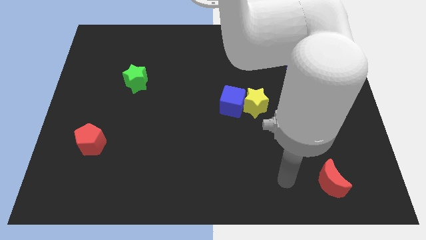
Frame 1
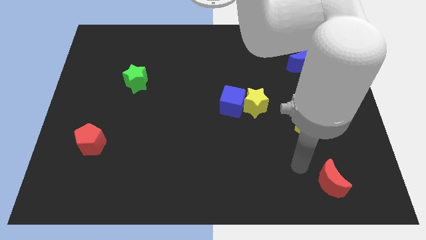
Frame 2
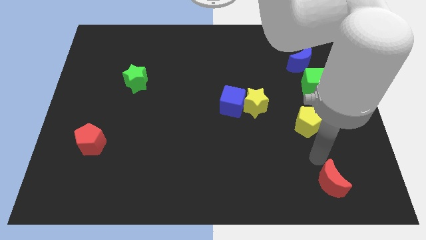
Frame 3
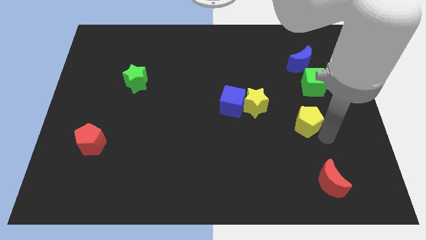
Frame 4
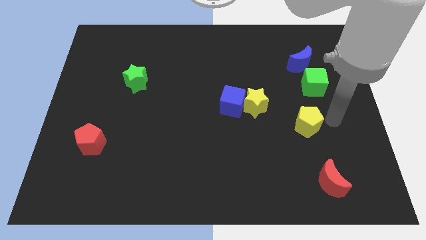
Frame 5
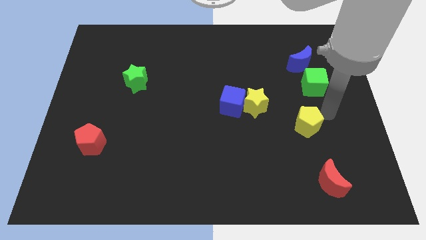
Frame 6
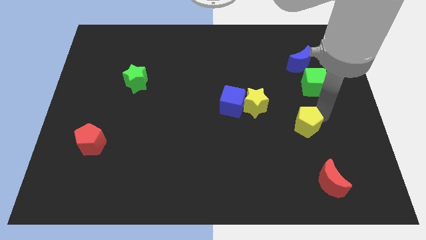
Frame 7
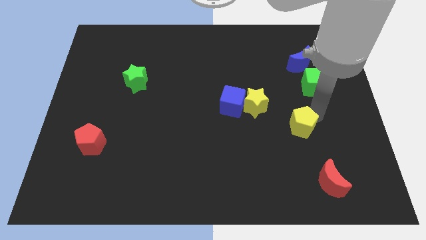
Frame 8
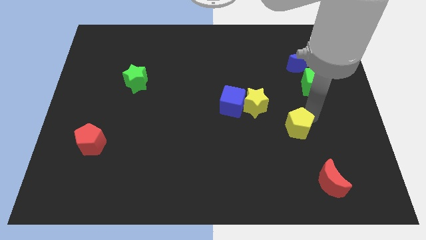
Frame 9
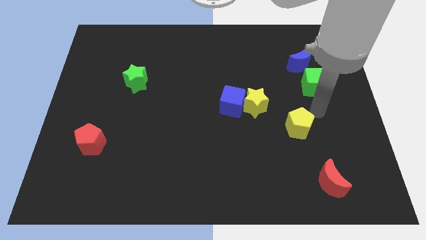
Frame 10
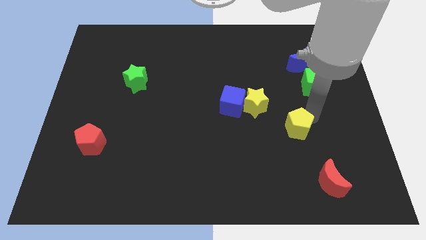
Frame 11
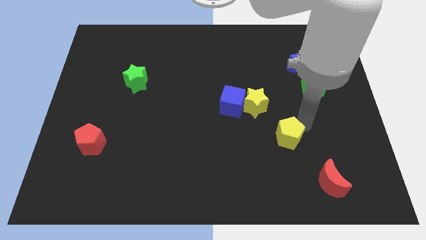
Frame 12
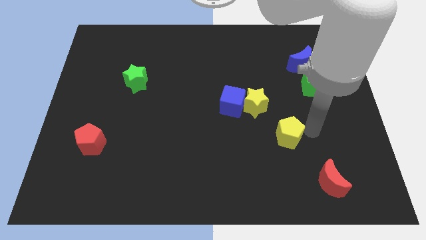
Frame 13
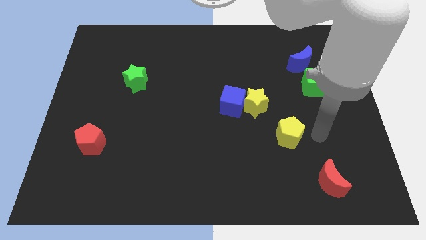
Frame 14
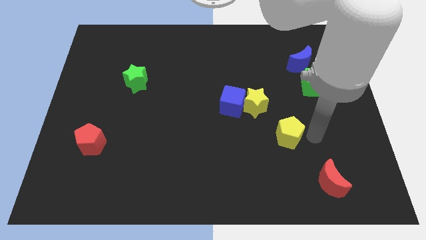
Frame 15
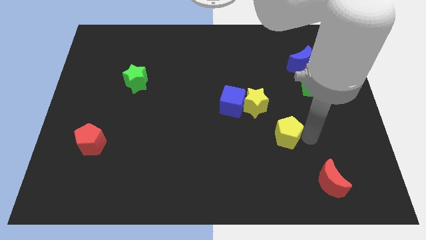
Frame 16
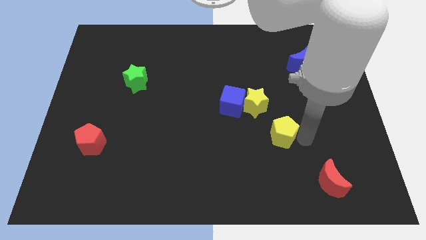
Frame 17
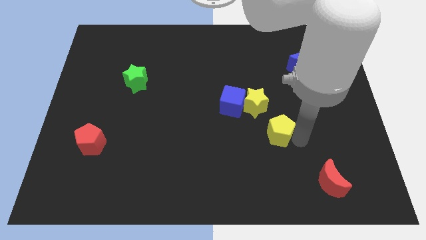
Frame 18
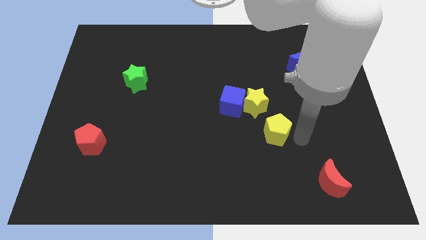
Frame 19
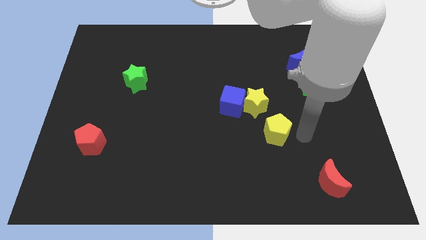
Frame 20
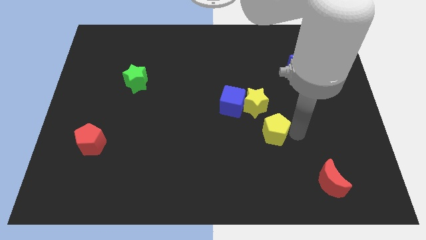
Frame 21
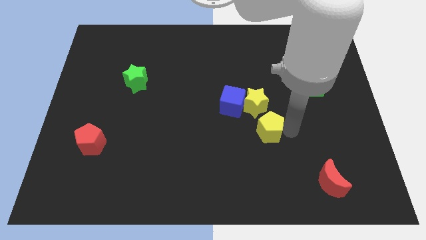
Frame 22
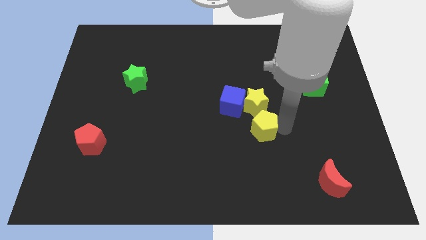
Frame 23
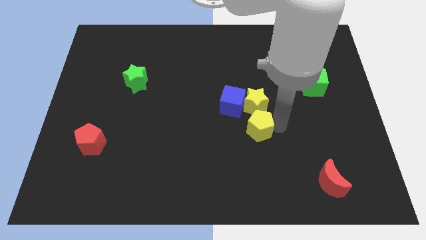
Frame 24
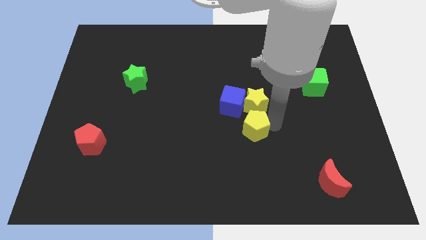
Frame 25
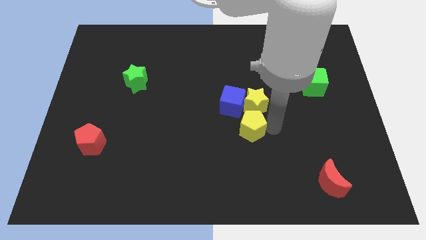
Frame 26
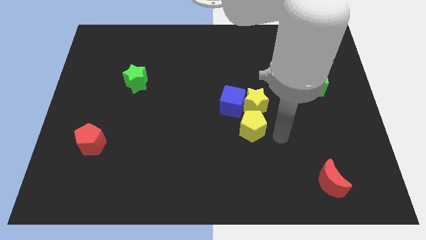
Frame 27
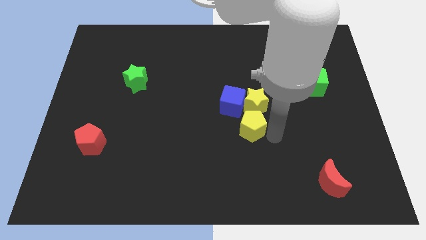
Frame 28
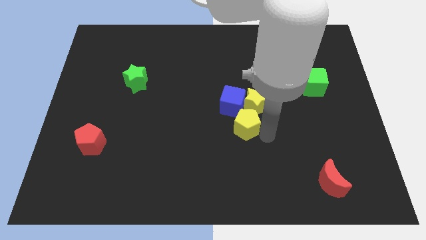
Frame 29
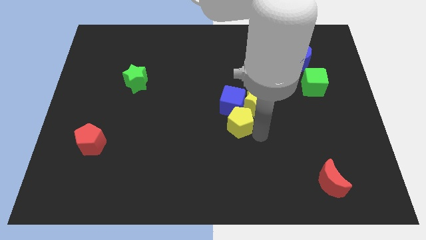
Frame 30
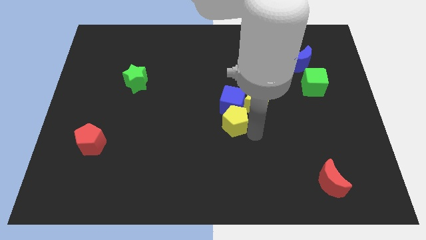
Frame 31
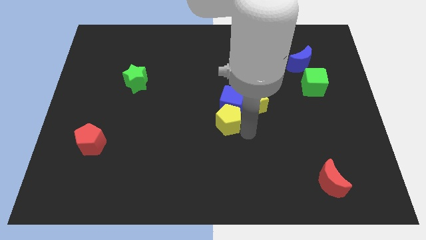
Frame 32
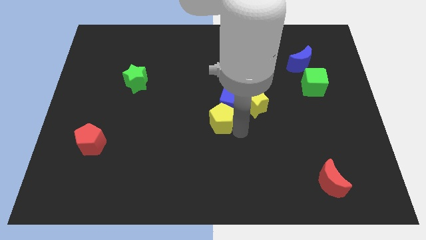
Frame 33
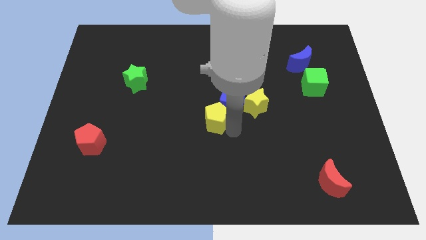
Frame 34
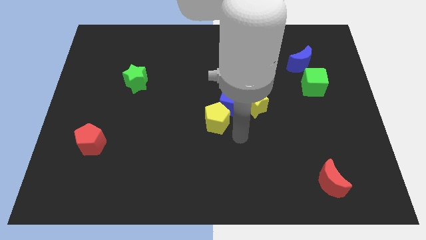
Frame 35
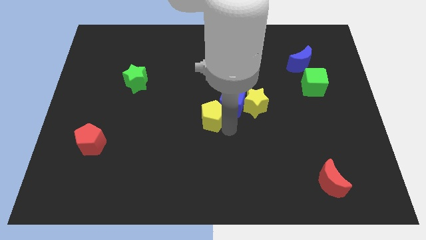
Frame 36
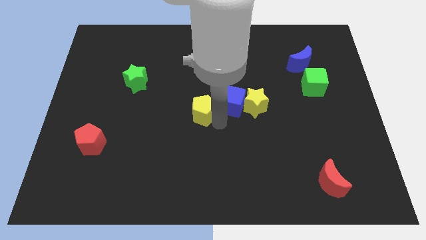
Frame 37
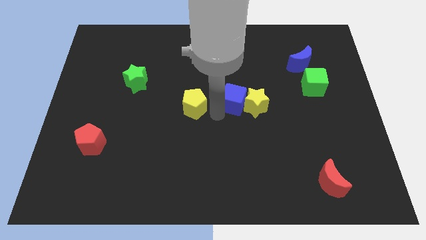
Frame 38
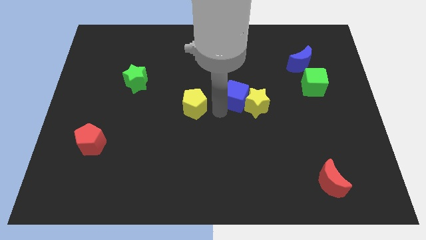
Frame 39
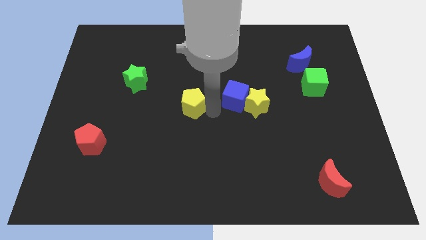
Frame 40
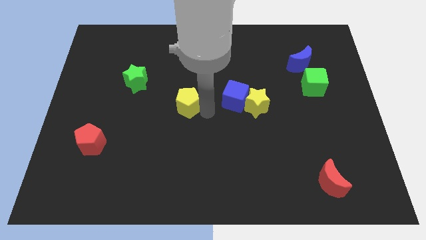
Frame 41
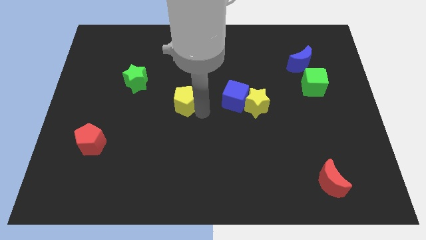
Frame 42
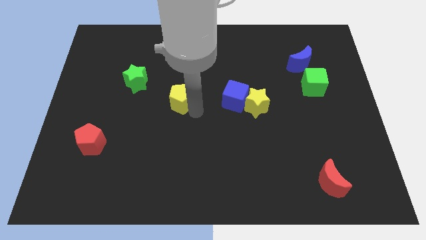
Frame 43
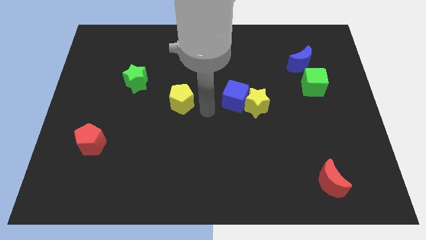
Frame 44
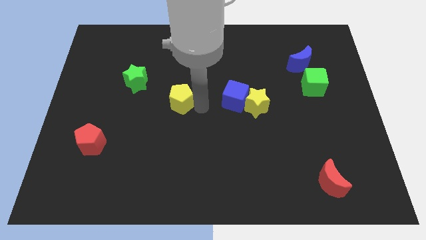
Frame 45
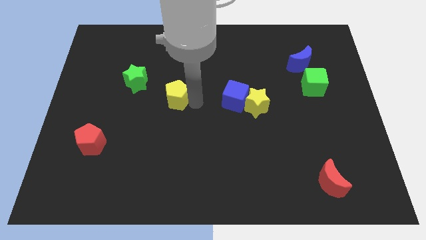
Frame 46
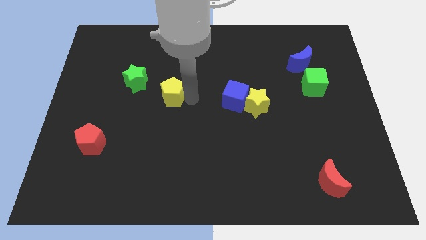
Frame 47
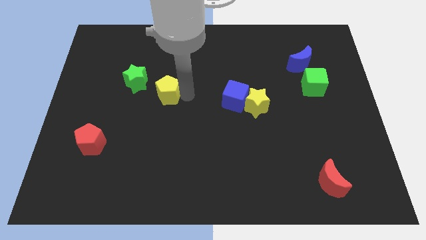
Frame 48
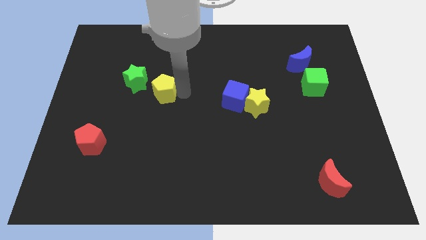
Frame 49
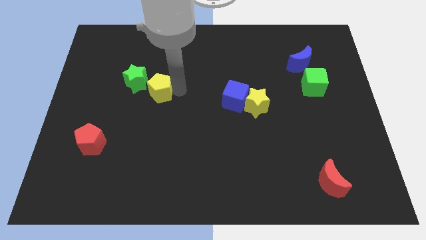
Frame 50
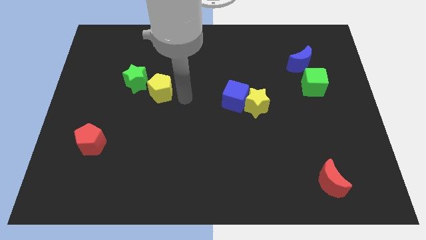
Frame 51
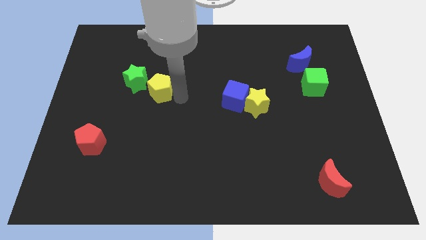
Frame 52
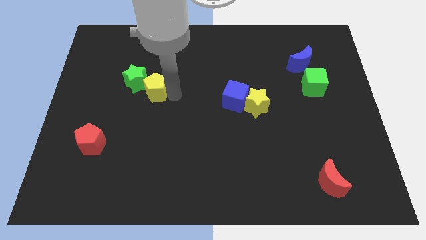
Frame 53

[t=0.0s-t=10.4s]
push the yellow pentagon towards the green star

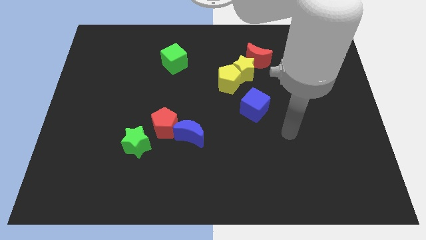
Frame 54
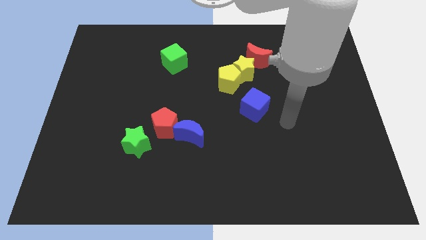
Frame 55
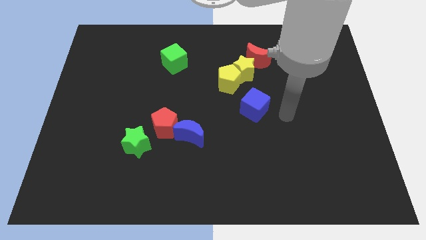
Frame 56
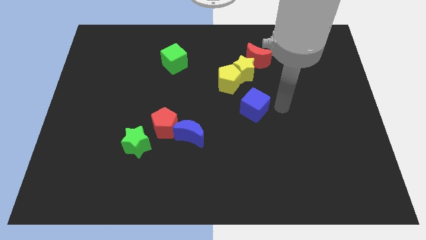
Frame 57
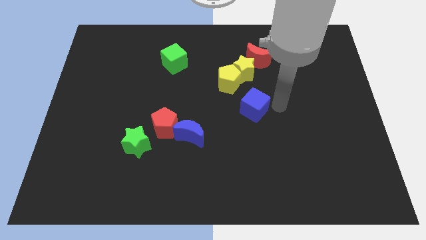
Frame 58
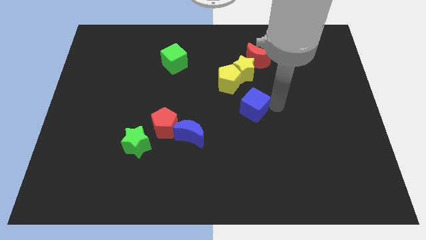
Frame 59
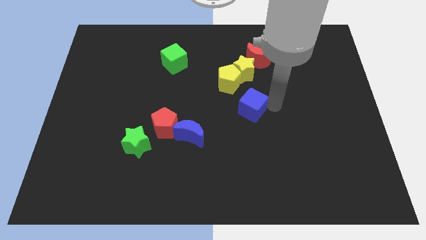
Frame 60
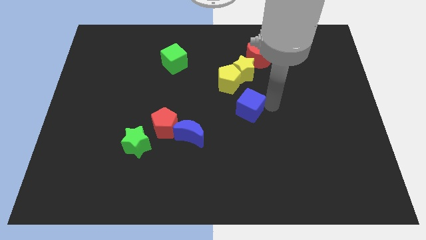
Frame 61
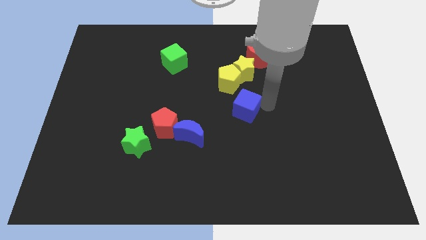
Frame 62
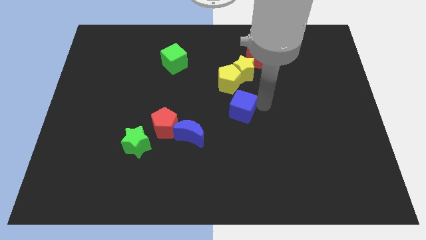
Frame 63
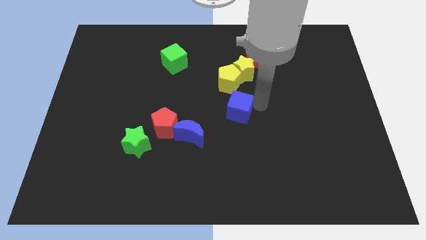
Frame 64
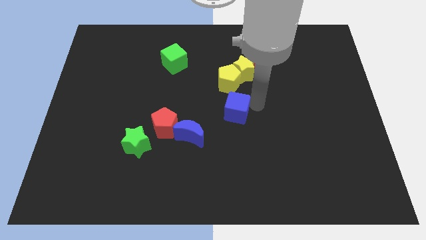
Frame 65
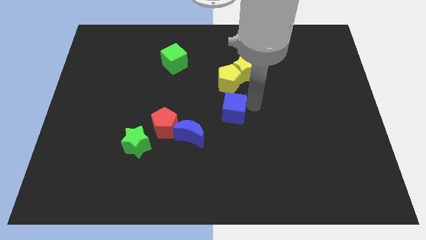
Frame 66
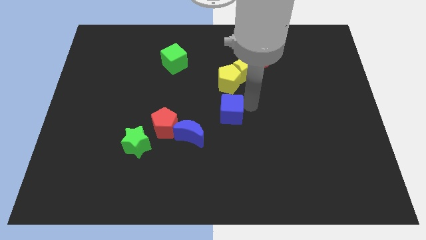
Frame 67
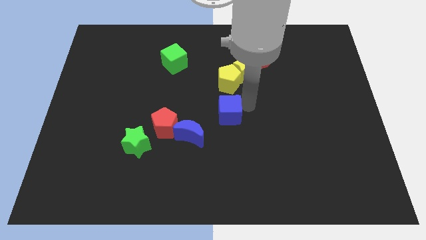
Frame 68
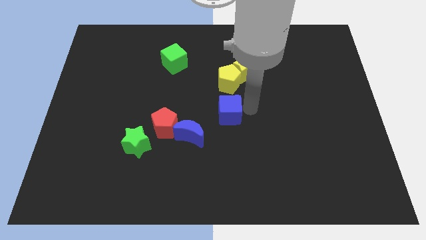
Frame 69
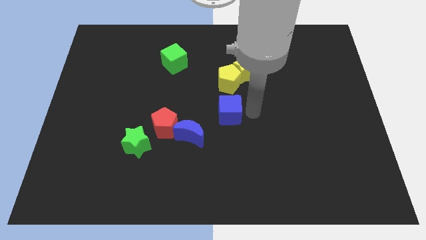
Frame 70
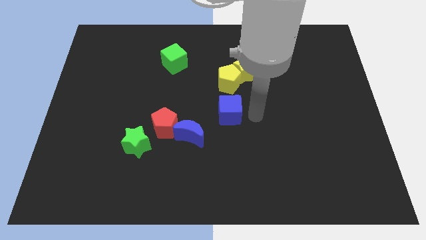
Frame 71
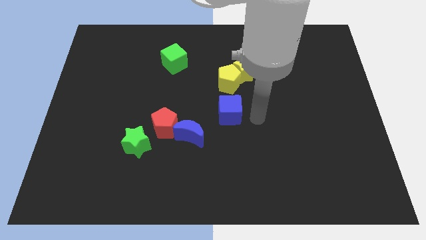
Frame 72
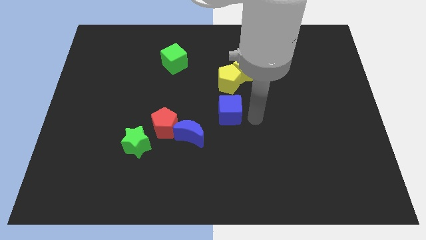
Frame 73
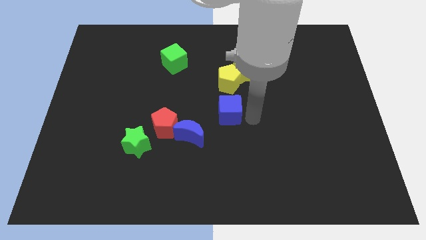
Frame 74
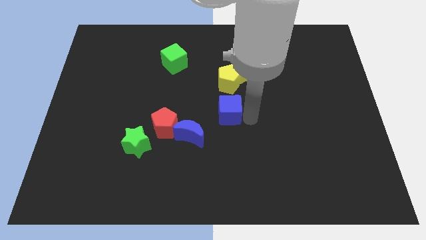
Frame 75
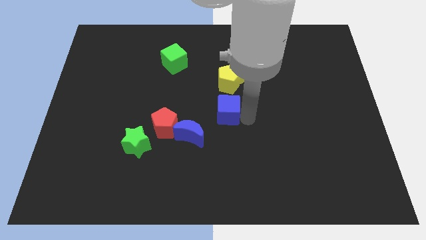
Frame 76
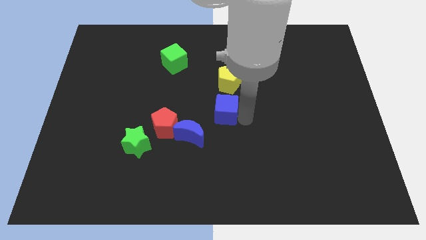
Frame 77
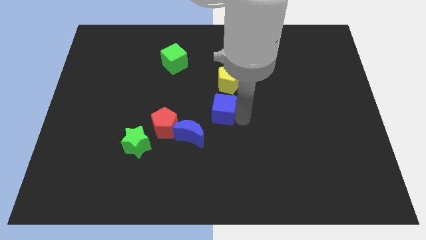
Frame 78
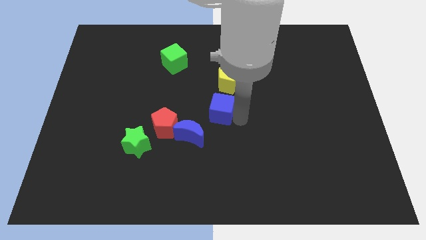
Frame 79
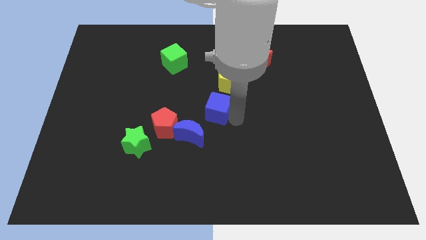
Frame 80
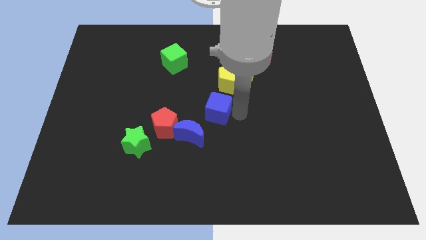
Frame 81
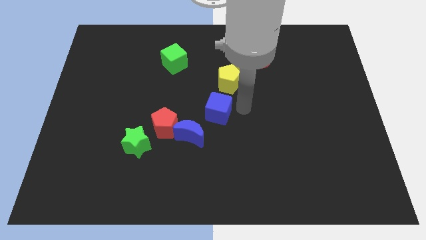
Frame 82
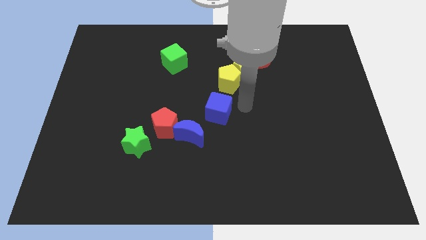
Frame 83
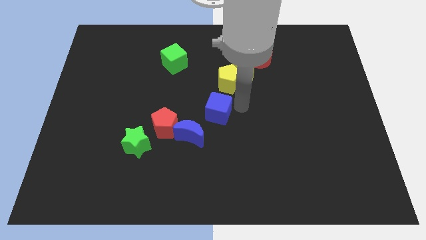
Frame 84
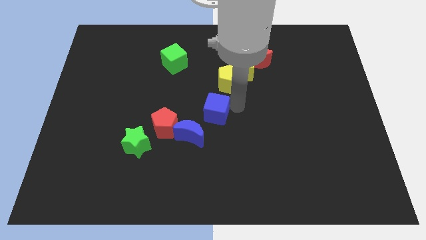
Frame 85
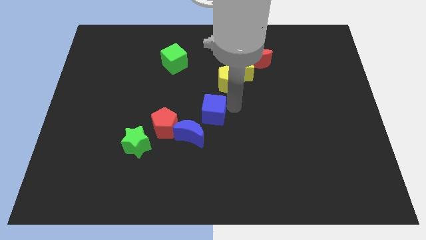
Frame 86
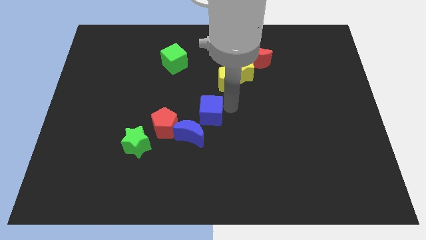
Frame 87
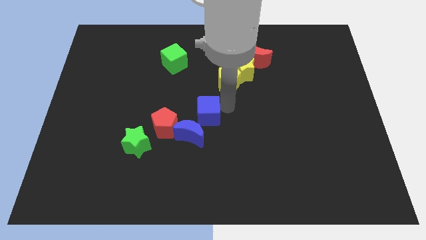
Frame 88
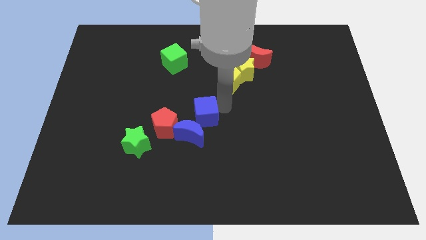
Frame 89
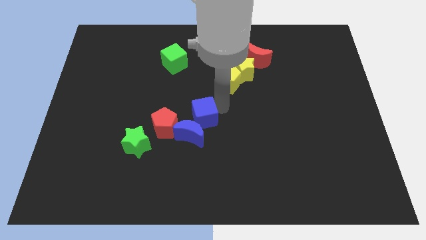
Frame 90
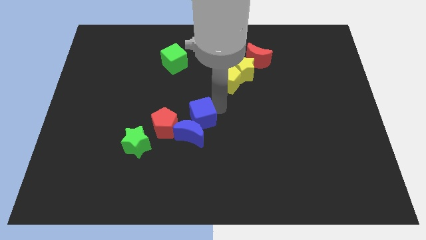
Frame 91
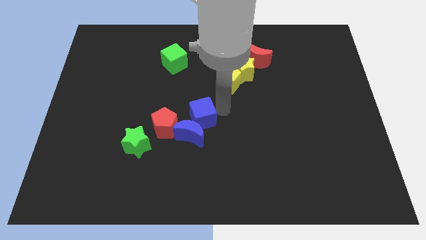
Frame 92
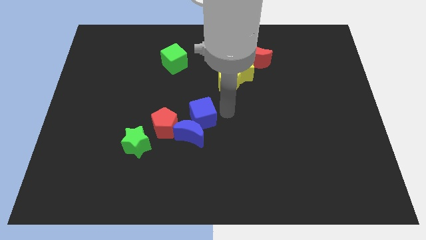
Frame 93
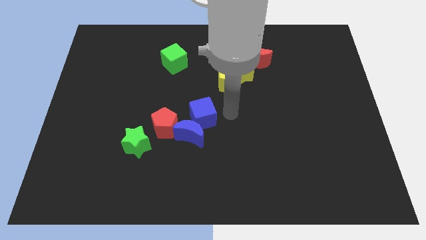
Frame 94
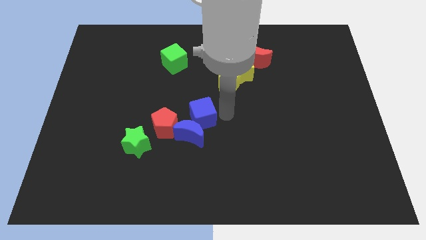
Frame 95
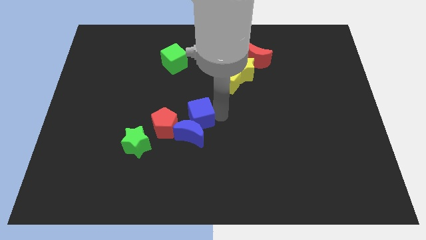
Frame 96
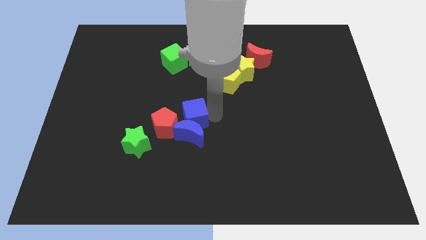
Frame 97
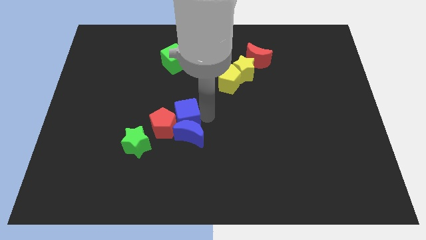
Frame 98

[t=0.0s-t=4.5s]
put the blue cube to the red pentagon
